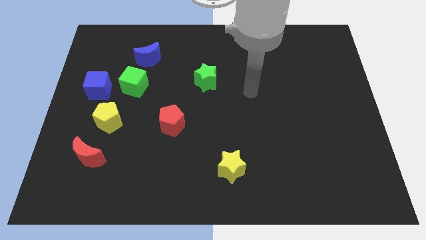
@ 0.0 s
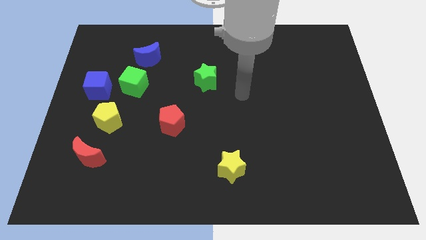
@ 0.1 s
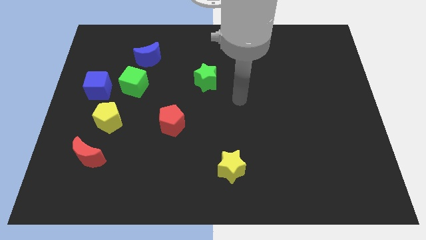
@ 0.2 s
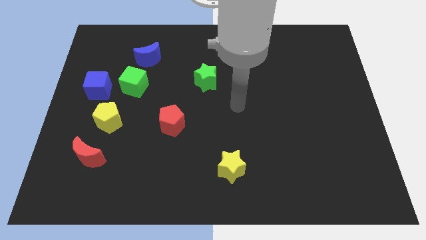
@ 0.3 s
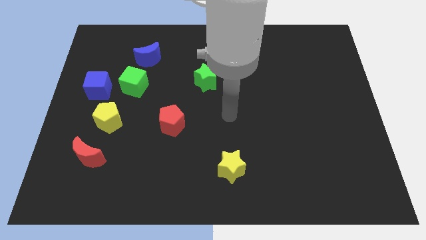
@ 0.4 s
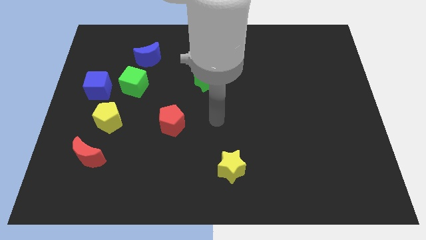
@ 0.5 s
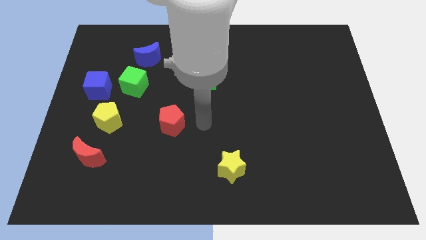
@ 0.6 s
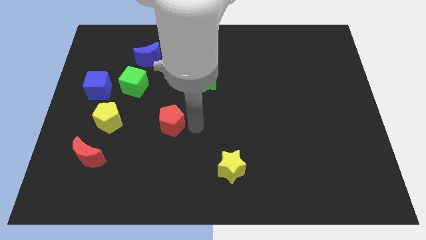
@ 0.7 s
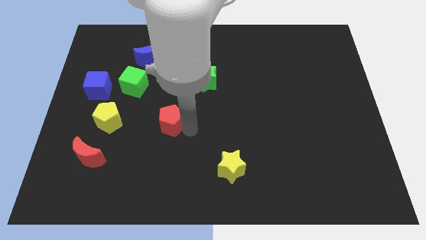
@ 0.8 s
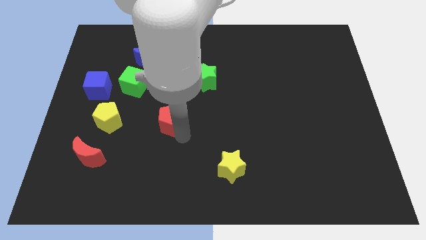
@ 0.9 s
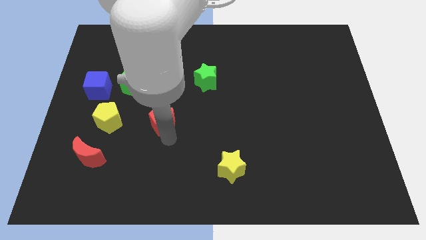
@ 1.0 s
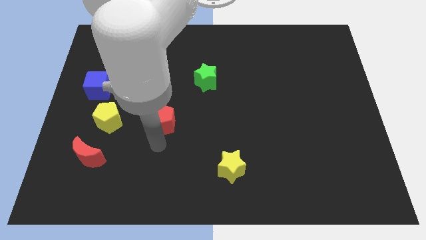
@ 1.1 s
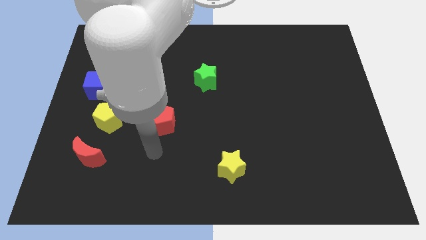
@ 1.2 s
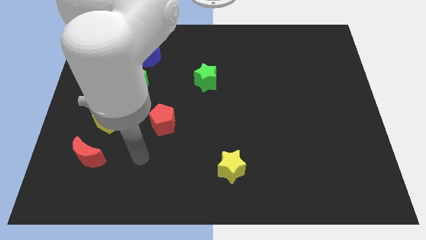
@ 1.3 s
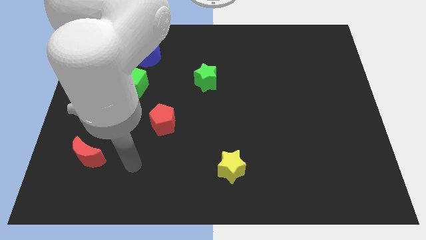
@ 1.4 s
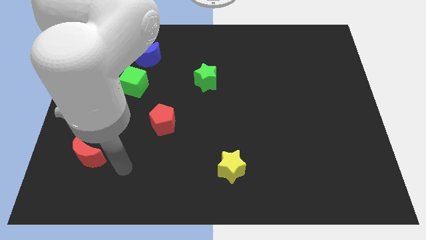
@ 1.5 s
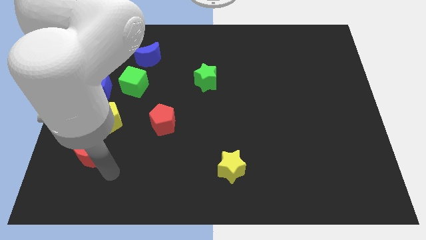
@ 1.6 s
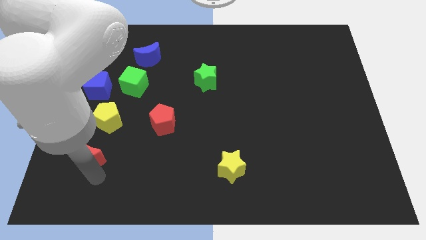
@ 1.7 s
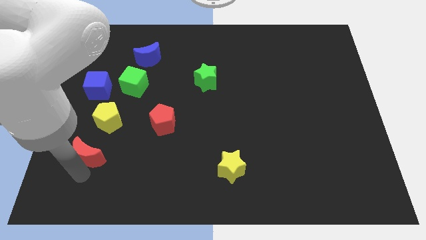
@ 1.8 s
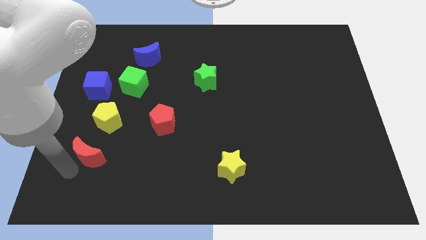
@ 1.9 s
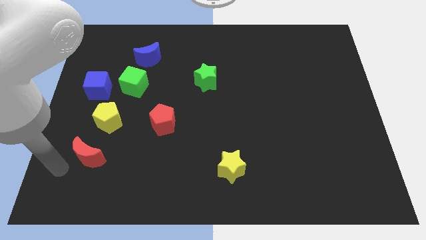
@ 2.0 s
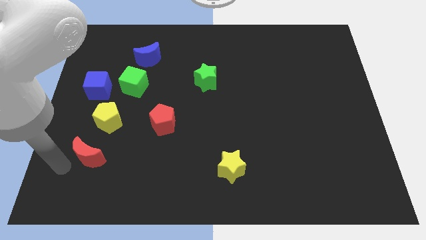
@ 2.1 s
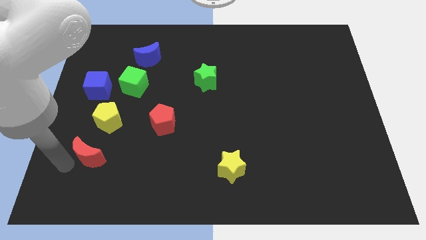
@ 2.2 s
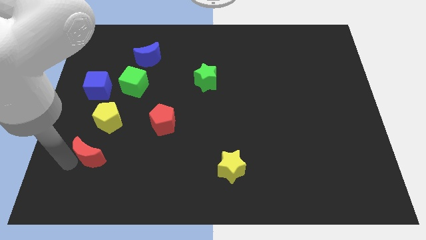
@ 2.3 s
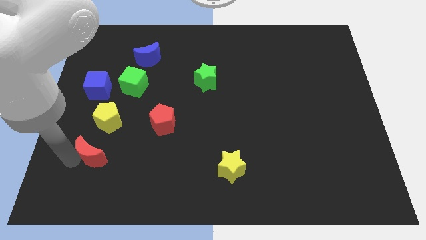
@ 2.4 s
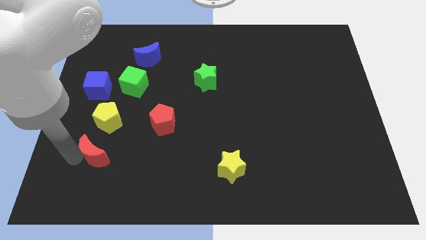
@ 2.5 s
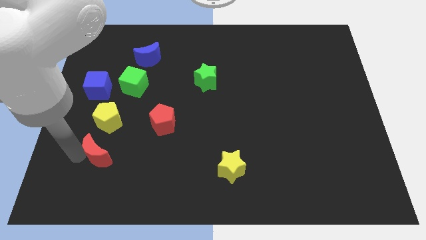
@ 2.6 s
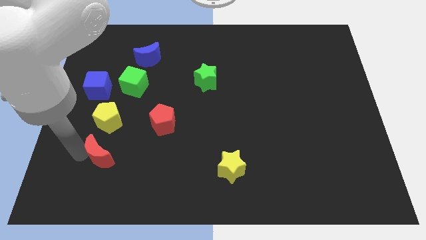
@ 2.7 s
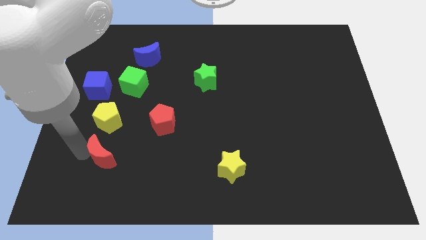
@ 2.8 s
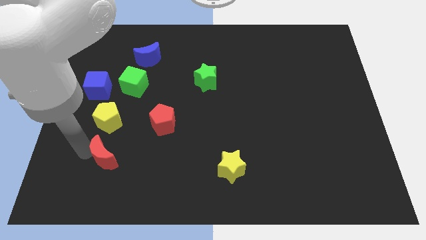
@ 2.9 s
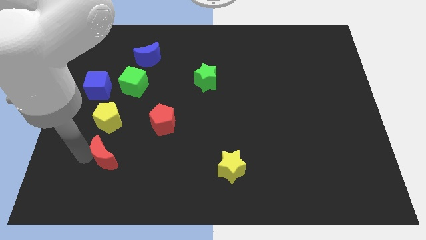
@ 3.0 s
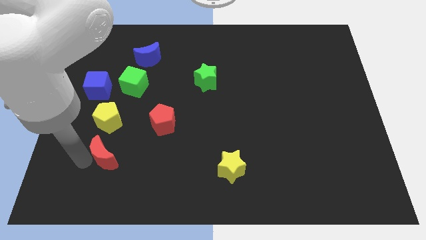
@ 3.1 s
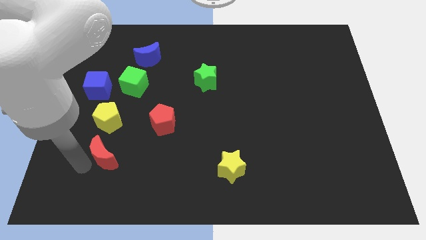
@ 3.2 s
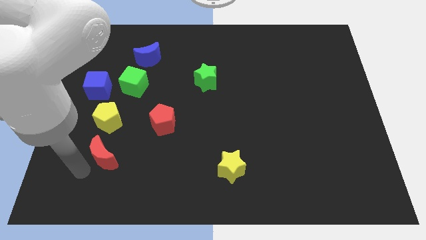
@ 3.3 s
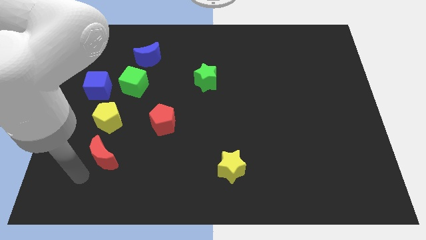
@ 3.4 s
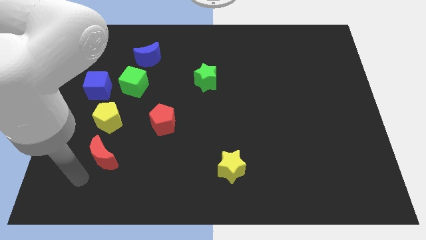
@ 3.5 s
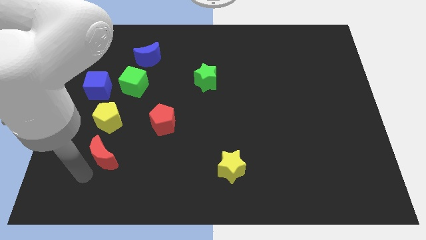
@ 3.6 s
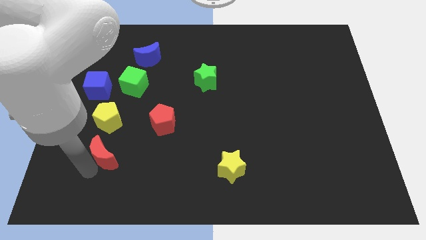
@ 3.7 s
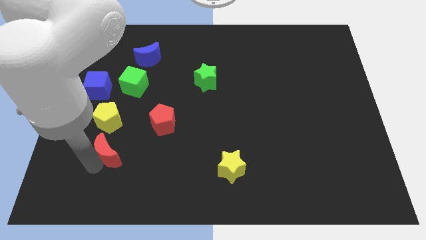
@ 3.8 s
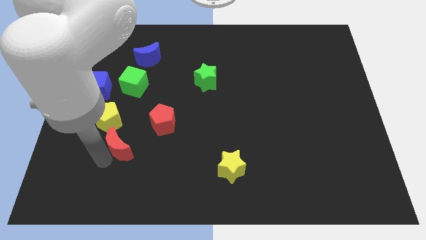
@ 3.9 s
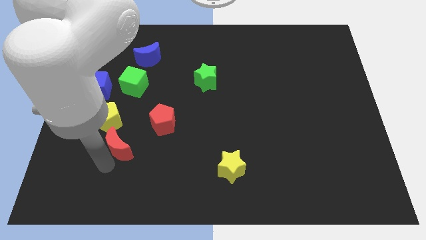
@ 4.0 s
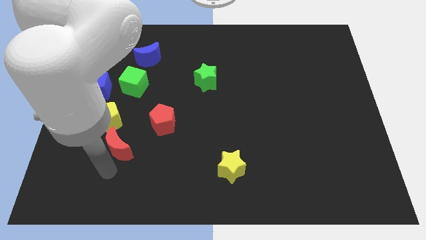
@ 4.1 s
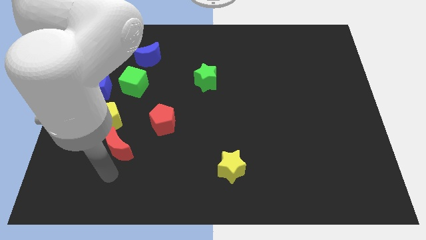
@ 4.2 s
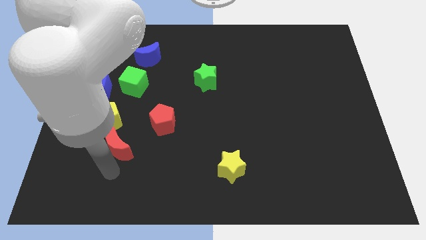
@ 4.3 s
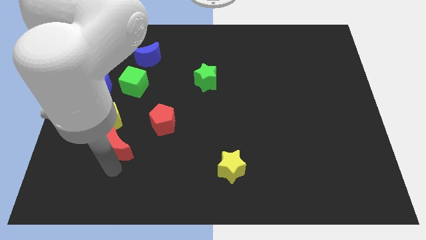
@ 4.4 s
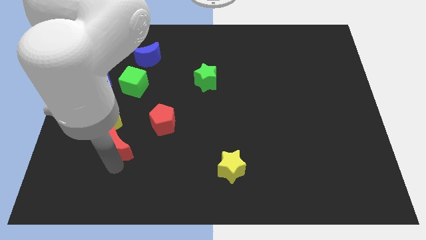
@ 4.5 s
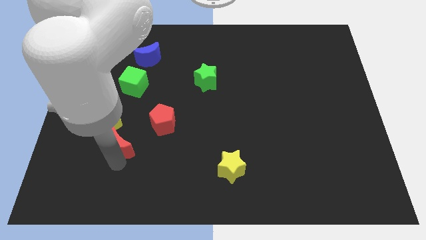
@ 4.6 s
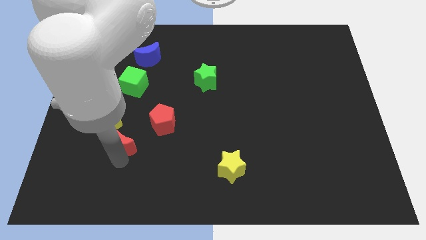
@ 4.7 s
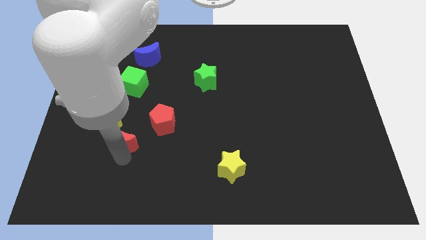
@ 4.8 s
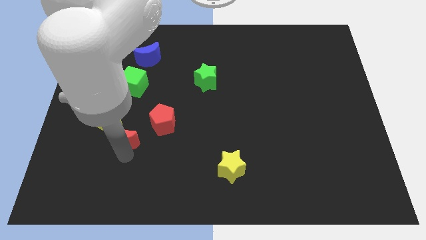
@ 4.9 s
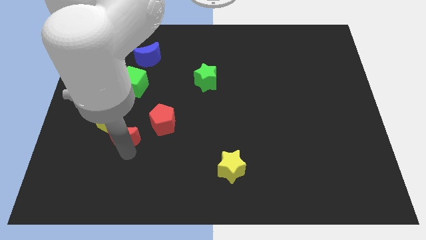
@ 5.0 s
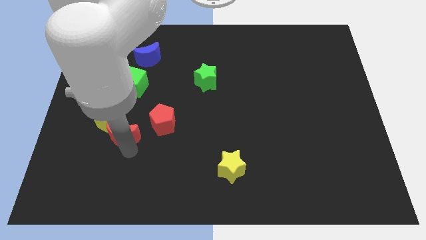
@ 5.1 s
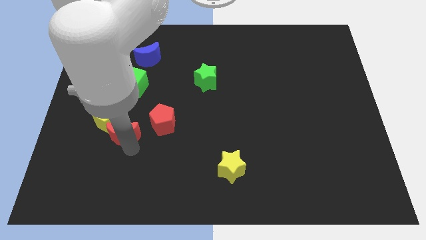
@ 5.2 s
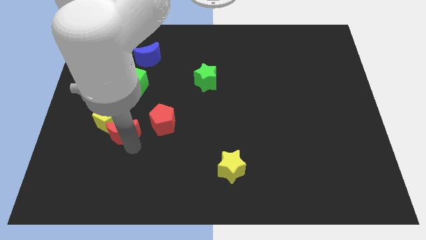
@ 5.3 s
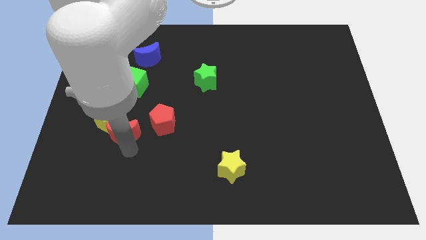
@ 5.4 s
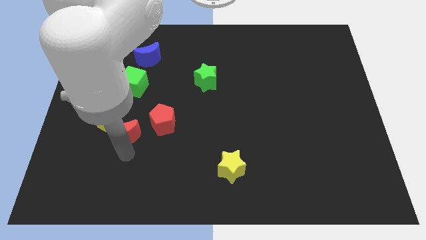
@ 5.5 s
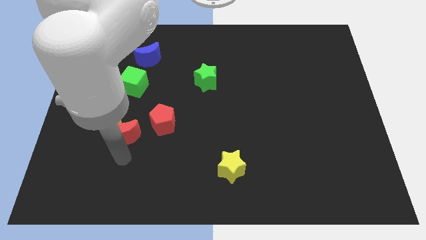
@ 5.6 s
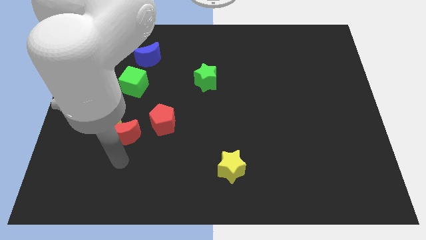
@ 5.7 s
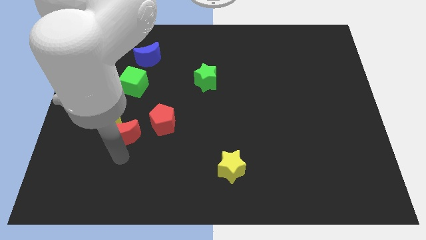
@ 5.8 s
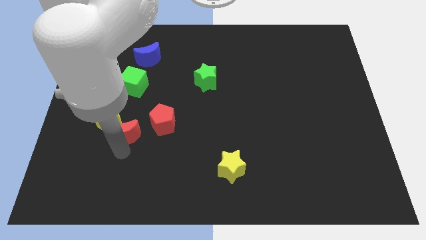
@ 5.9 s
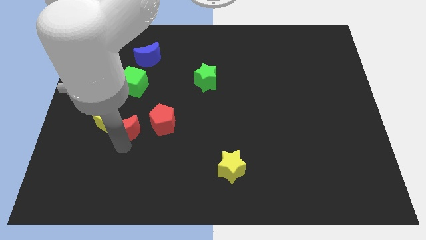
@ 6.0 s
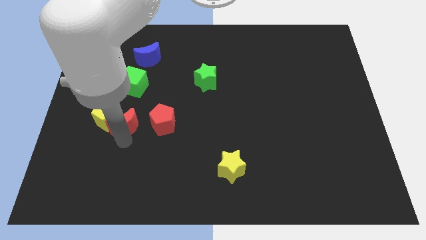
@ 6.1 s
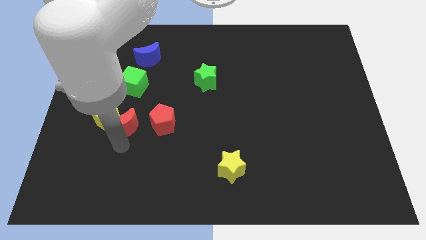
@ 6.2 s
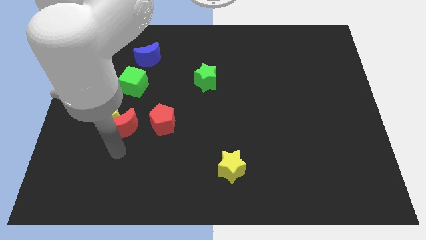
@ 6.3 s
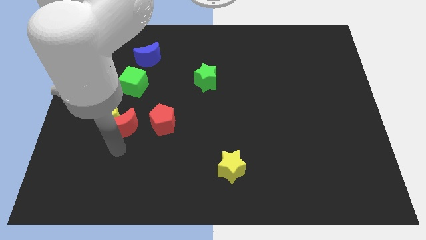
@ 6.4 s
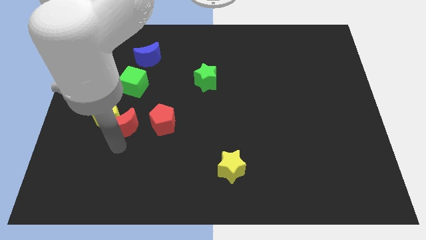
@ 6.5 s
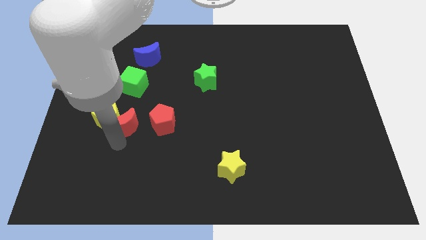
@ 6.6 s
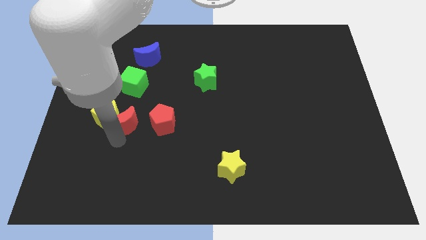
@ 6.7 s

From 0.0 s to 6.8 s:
put the red moon diagonally up and to the right of the yellow pentagon

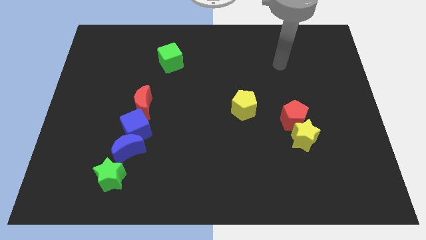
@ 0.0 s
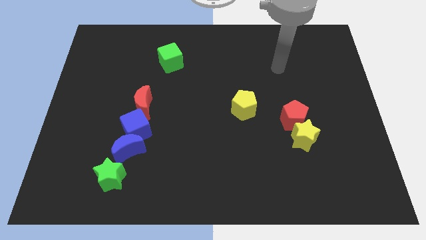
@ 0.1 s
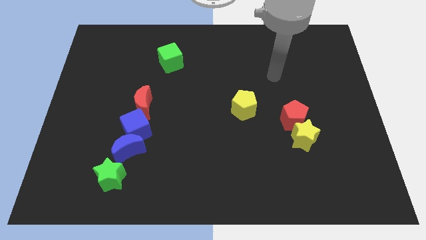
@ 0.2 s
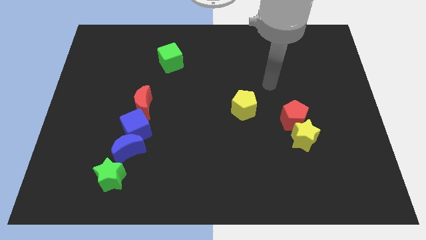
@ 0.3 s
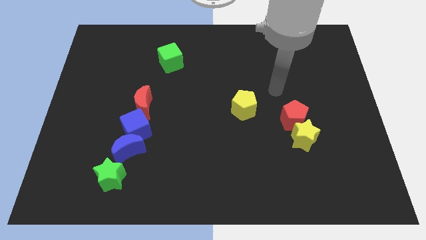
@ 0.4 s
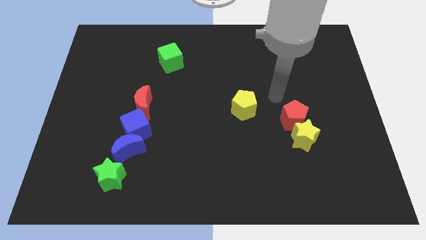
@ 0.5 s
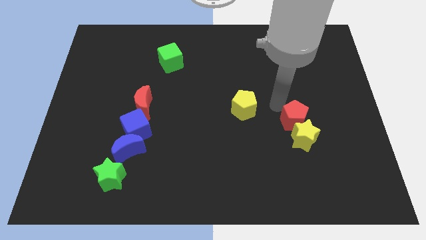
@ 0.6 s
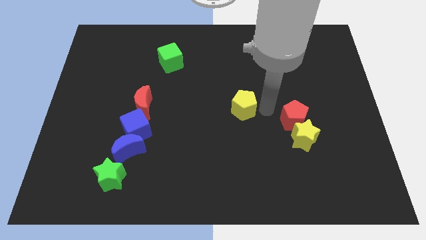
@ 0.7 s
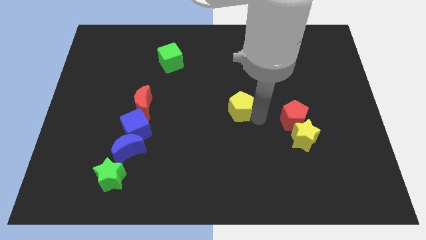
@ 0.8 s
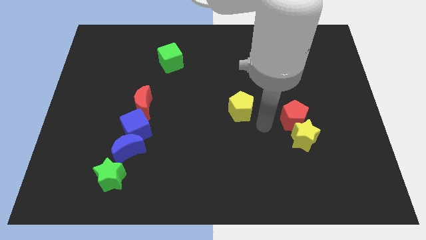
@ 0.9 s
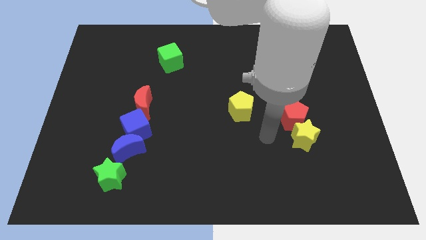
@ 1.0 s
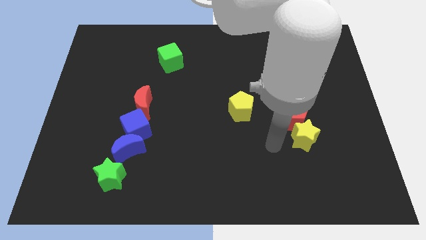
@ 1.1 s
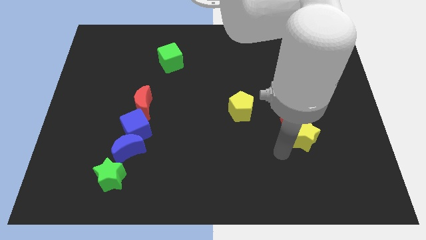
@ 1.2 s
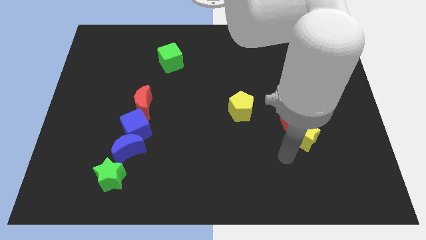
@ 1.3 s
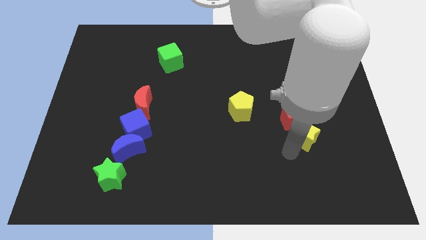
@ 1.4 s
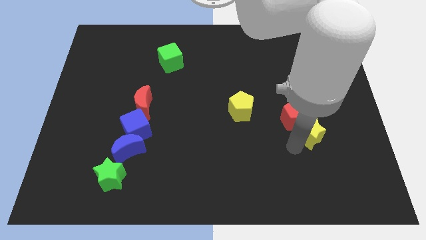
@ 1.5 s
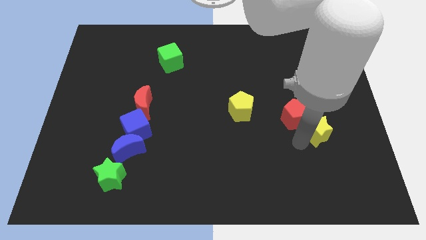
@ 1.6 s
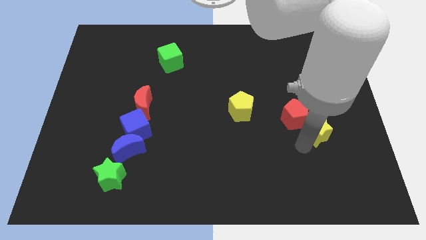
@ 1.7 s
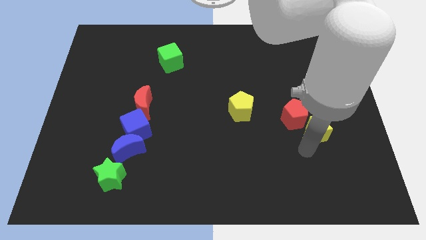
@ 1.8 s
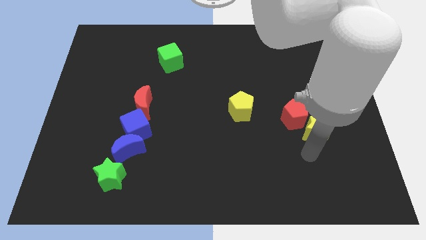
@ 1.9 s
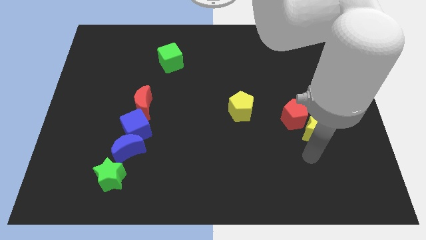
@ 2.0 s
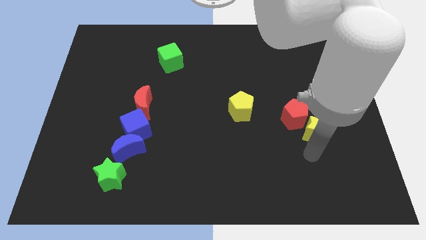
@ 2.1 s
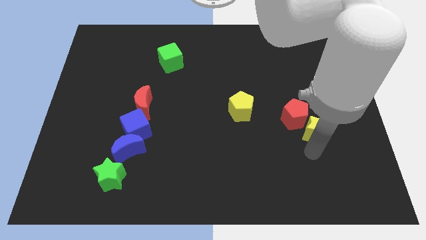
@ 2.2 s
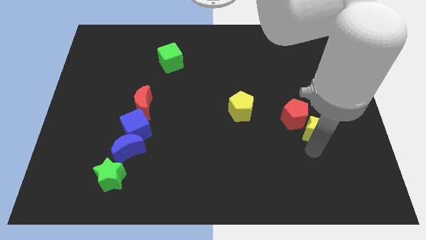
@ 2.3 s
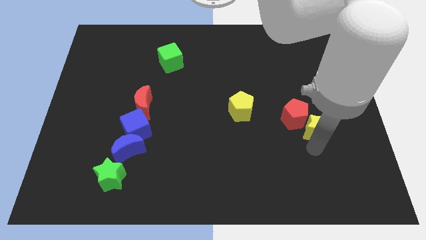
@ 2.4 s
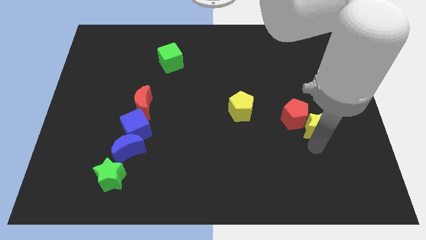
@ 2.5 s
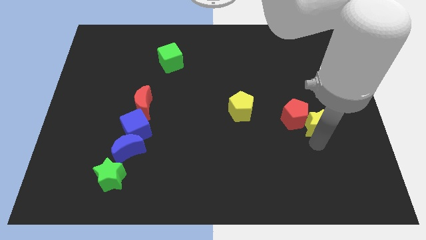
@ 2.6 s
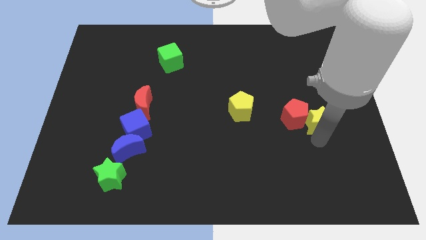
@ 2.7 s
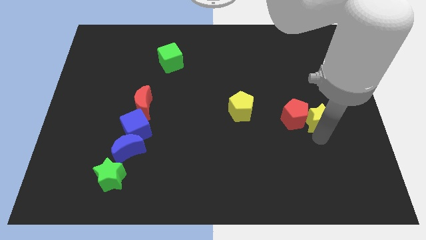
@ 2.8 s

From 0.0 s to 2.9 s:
slide the yellow star to the top right of the red pentagon
